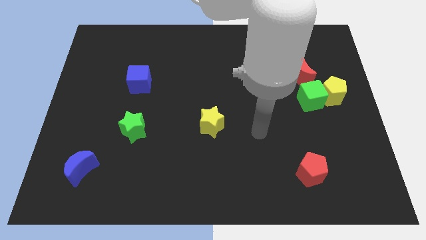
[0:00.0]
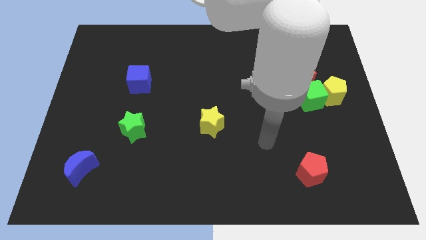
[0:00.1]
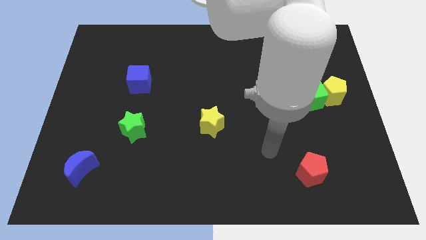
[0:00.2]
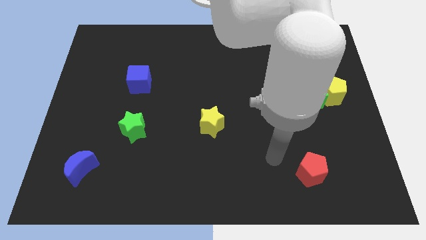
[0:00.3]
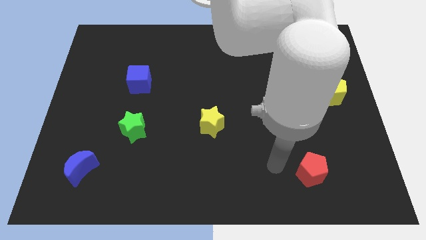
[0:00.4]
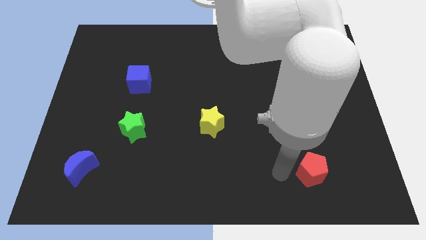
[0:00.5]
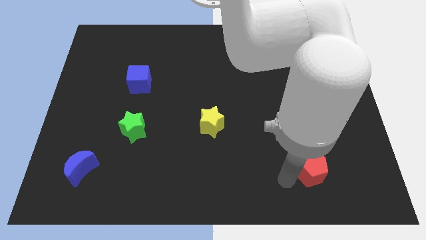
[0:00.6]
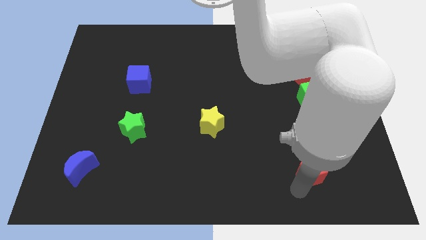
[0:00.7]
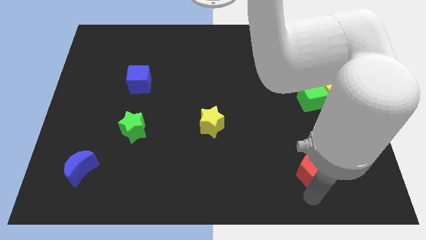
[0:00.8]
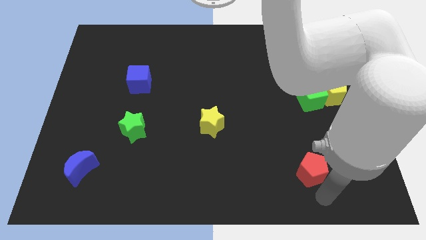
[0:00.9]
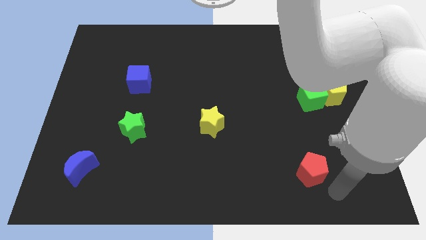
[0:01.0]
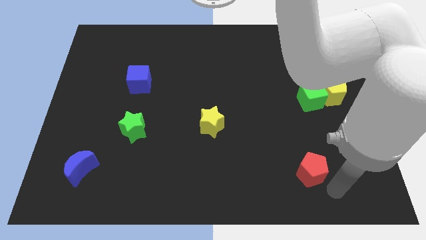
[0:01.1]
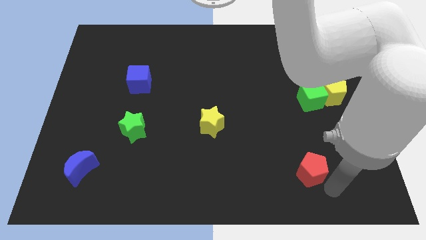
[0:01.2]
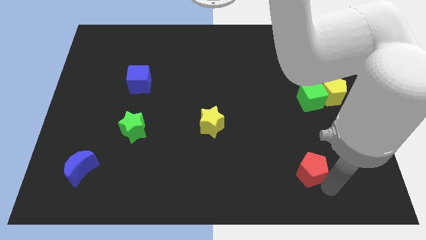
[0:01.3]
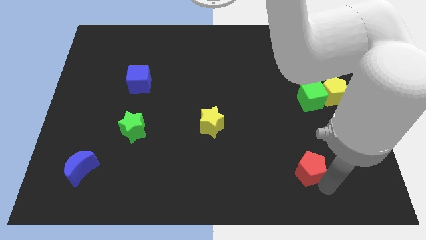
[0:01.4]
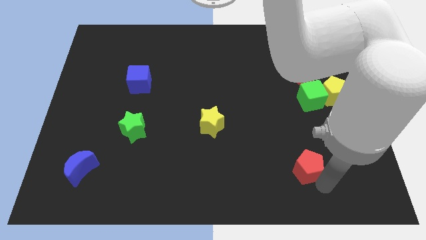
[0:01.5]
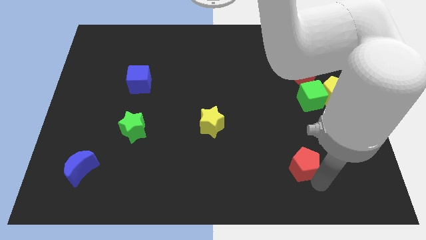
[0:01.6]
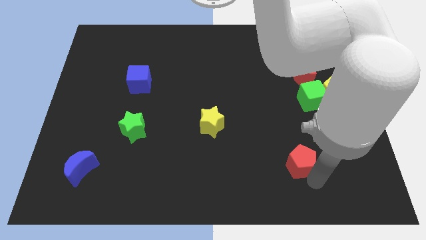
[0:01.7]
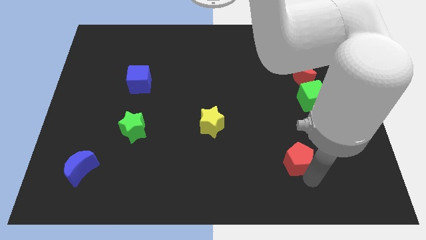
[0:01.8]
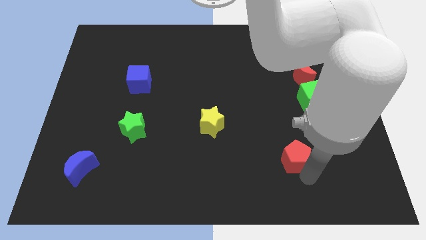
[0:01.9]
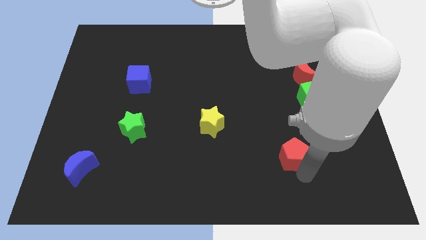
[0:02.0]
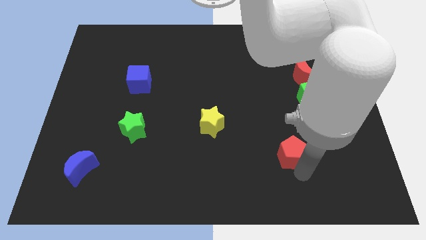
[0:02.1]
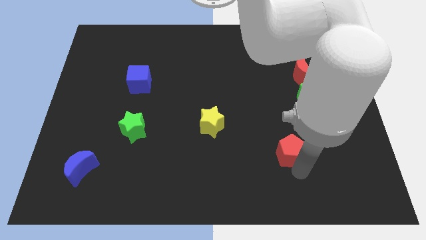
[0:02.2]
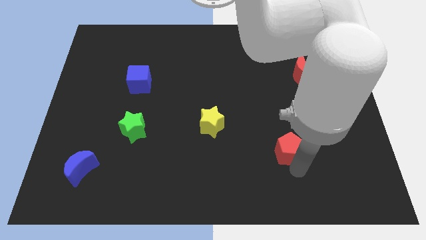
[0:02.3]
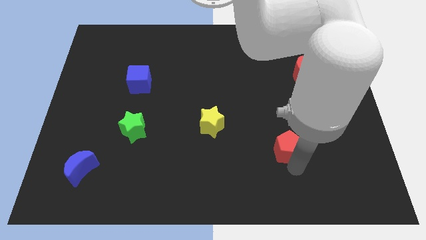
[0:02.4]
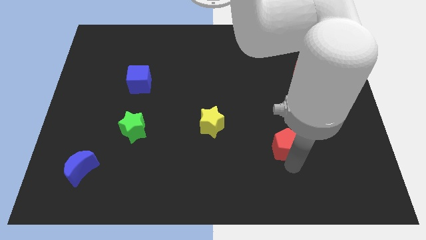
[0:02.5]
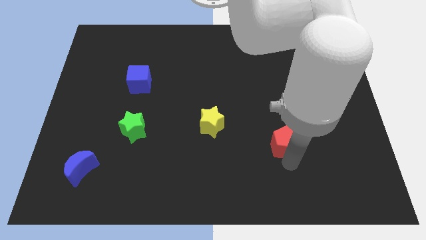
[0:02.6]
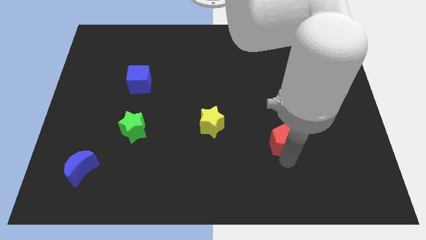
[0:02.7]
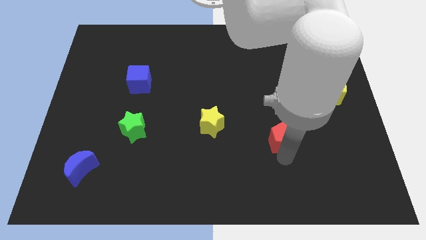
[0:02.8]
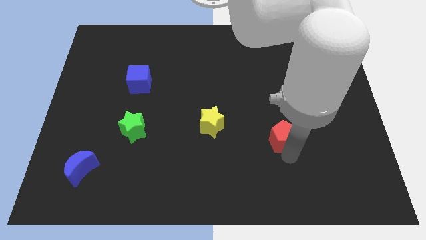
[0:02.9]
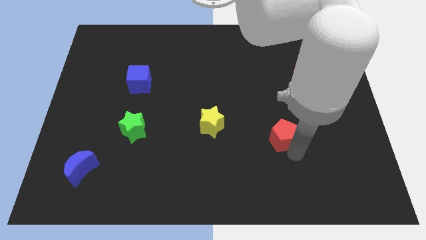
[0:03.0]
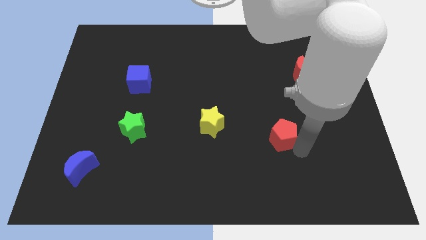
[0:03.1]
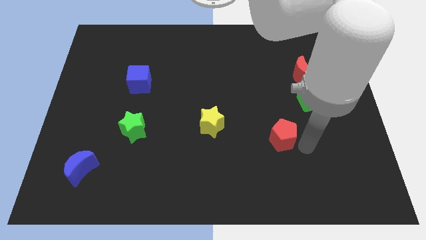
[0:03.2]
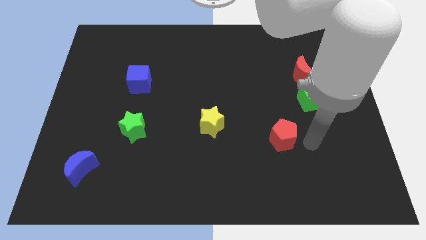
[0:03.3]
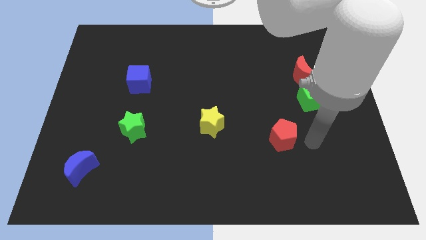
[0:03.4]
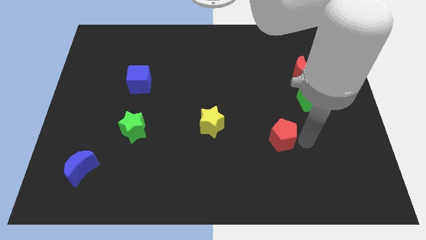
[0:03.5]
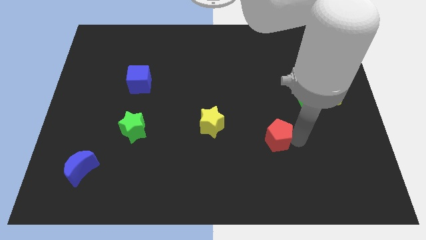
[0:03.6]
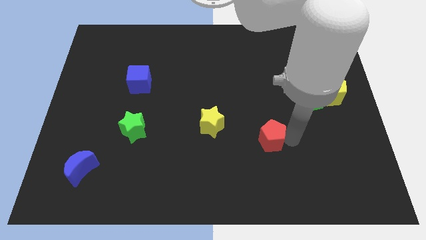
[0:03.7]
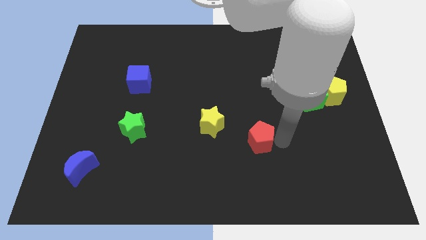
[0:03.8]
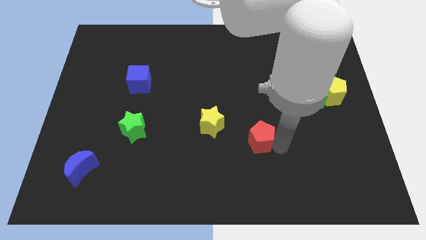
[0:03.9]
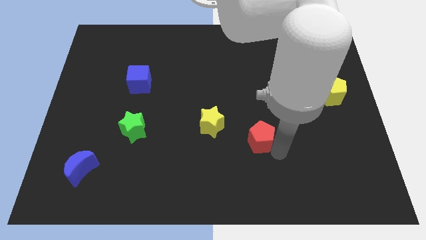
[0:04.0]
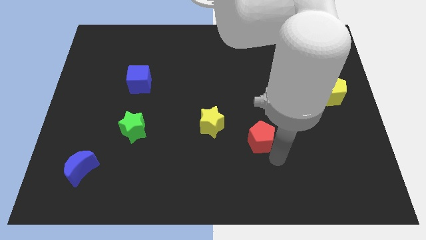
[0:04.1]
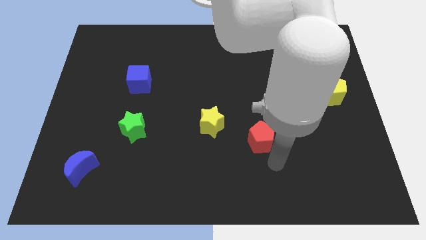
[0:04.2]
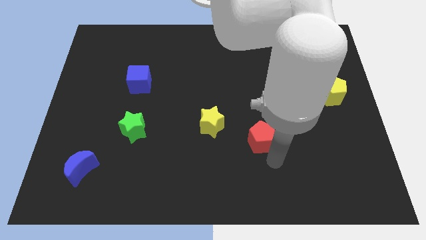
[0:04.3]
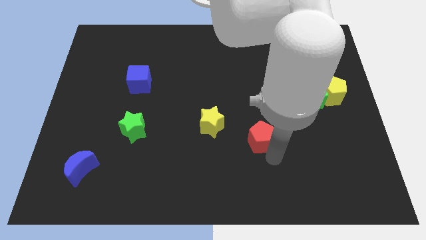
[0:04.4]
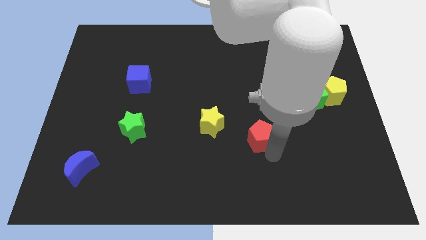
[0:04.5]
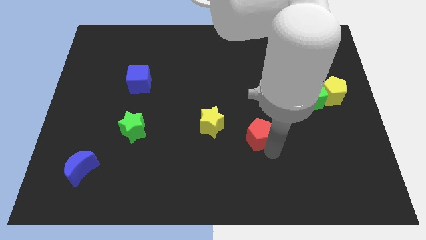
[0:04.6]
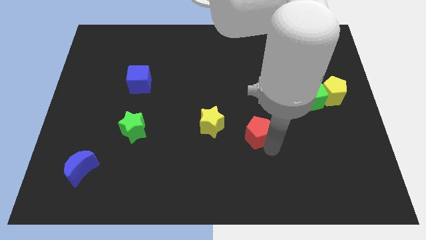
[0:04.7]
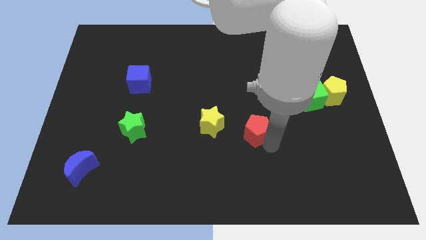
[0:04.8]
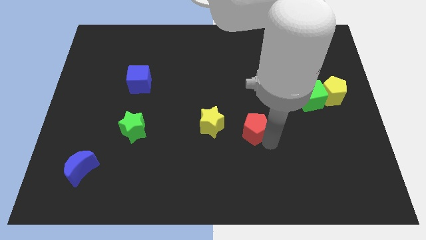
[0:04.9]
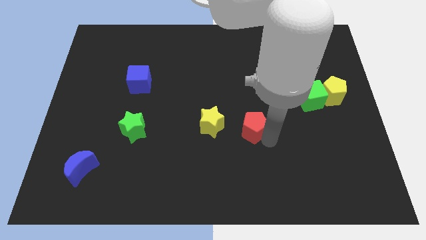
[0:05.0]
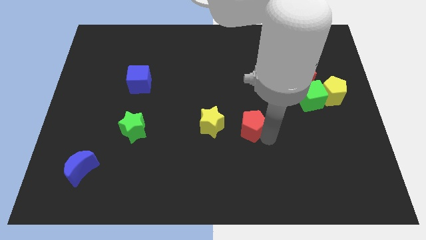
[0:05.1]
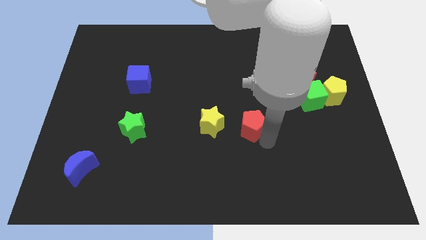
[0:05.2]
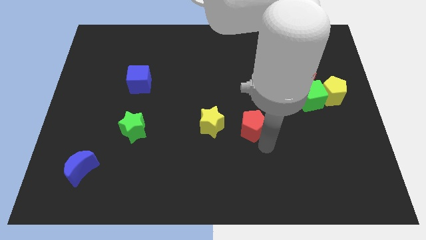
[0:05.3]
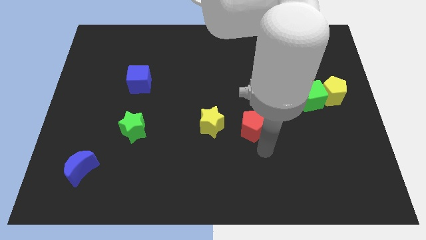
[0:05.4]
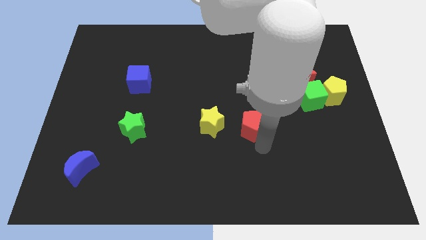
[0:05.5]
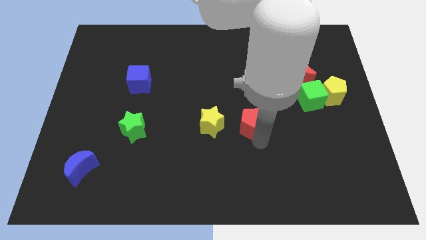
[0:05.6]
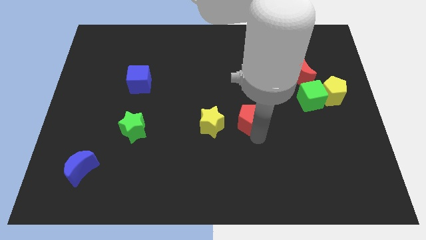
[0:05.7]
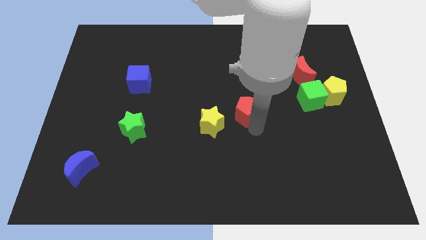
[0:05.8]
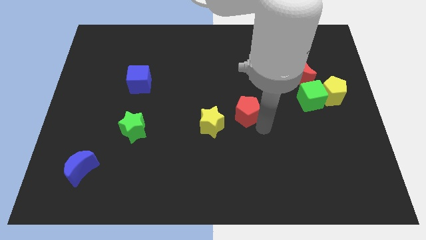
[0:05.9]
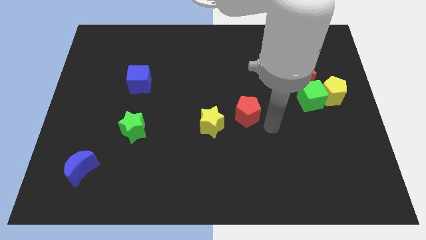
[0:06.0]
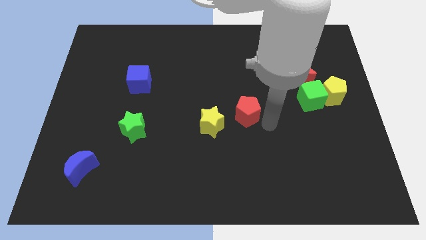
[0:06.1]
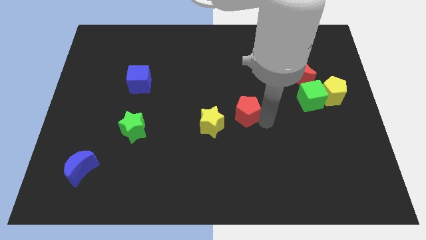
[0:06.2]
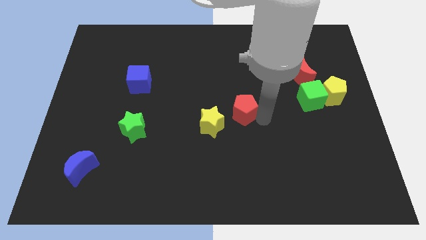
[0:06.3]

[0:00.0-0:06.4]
push the red pentagon up and then to the left

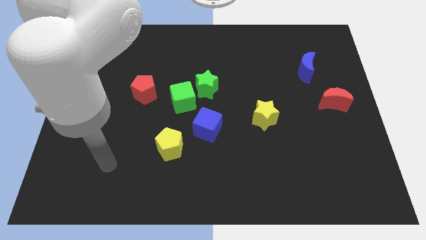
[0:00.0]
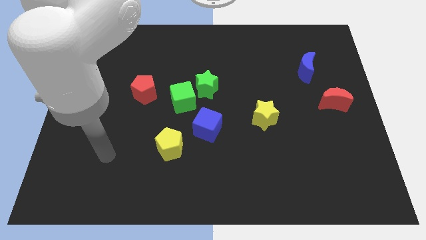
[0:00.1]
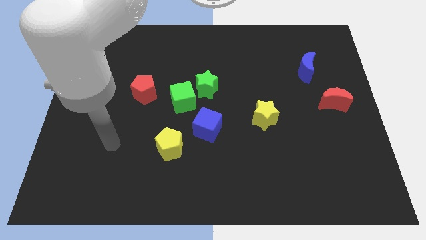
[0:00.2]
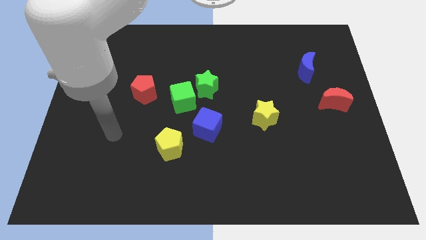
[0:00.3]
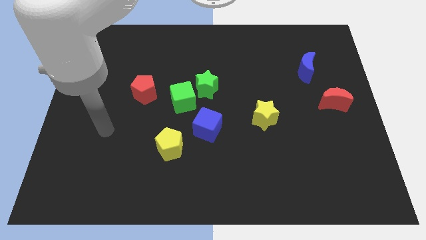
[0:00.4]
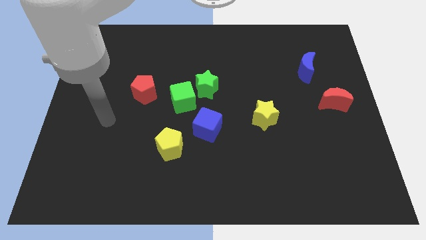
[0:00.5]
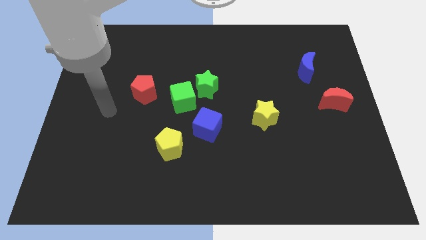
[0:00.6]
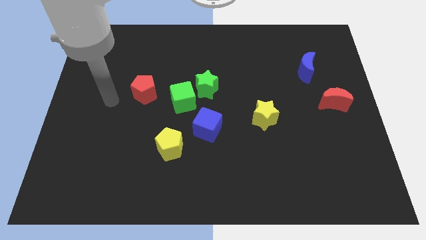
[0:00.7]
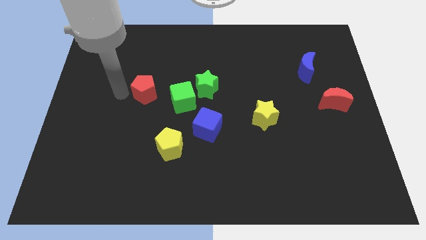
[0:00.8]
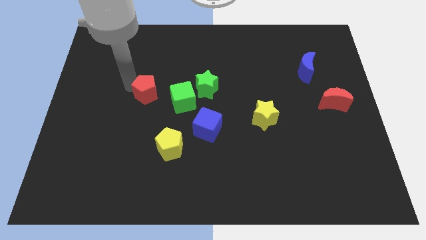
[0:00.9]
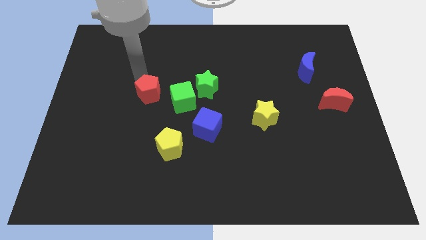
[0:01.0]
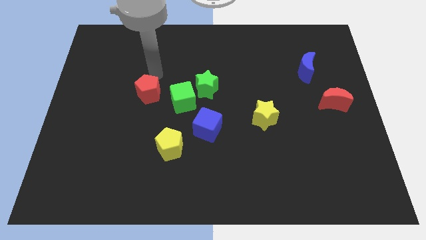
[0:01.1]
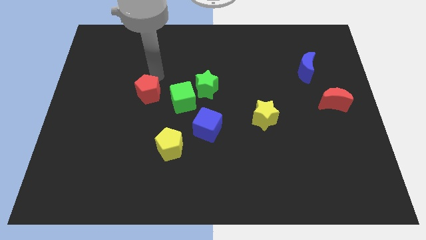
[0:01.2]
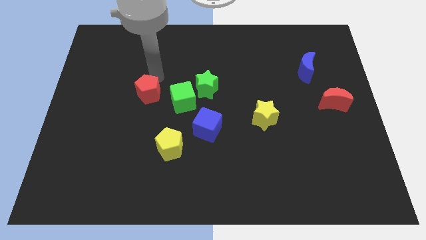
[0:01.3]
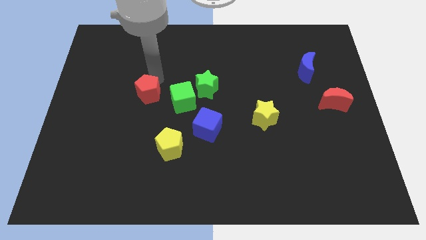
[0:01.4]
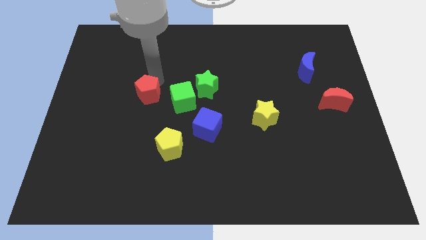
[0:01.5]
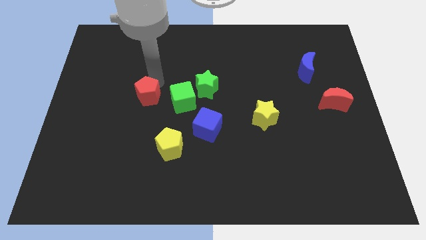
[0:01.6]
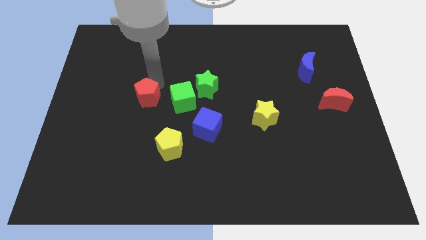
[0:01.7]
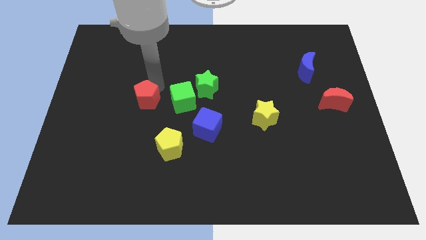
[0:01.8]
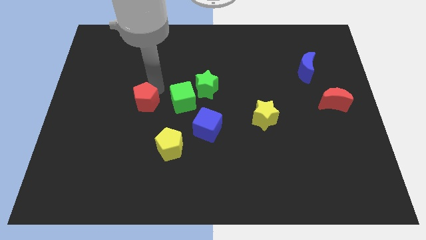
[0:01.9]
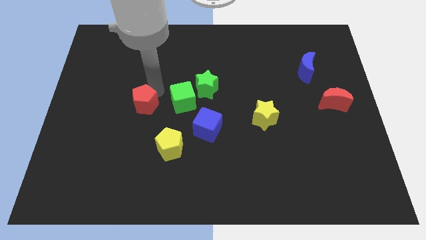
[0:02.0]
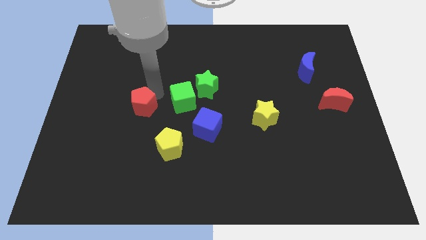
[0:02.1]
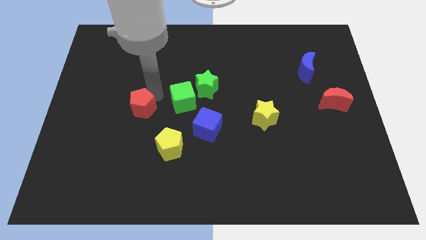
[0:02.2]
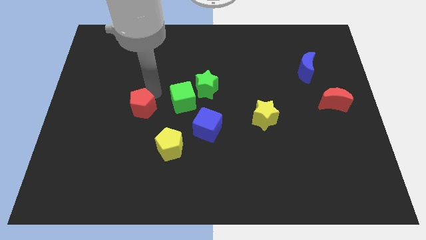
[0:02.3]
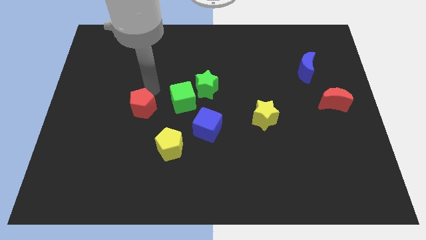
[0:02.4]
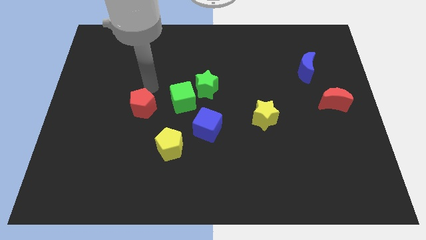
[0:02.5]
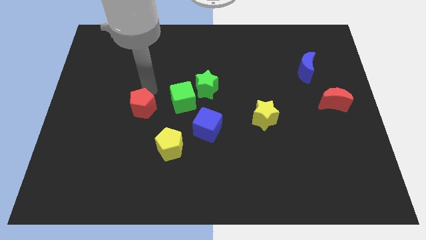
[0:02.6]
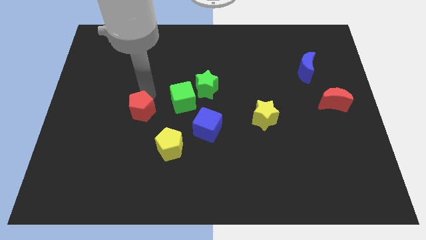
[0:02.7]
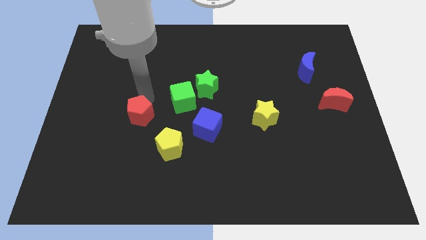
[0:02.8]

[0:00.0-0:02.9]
slide the red pentagon slightly downwards
